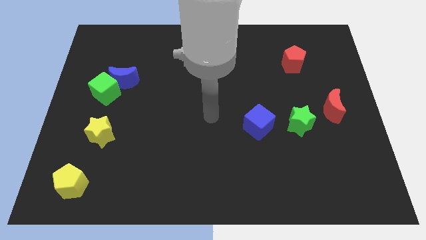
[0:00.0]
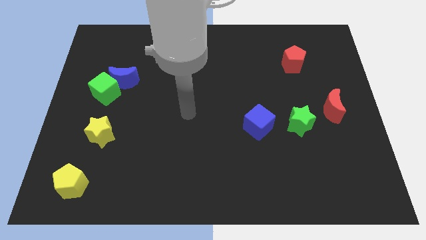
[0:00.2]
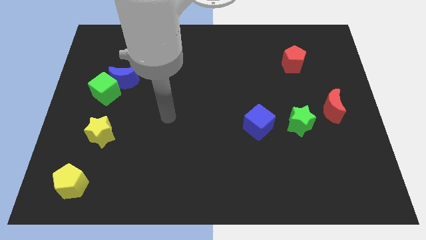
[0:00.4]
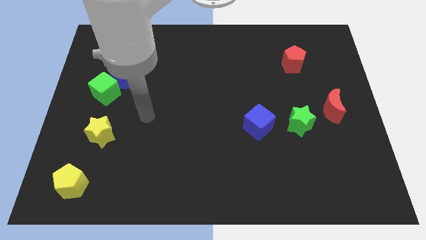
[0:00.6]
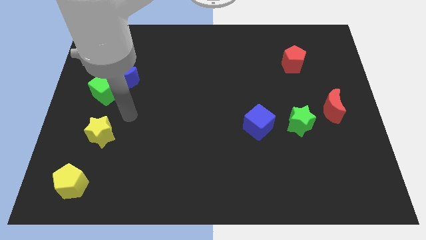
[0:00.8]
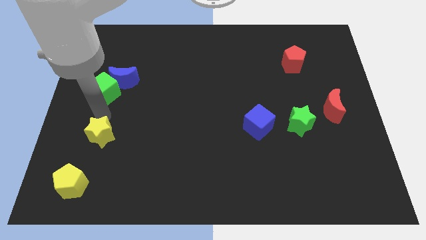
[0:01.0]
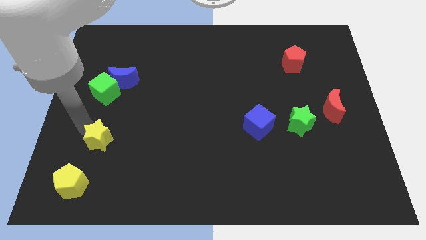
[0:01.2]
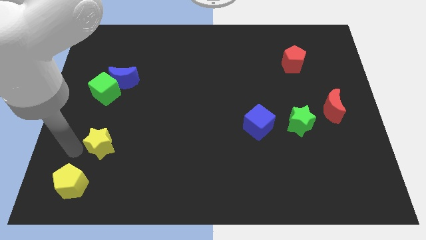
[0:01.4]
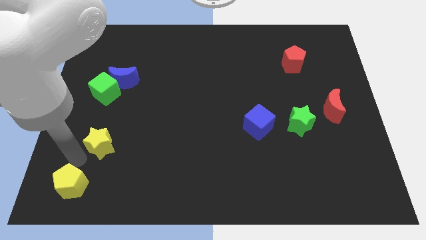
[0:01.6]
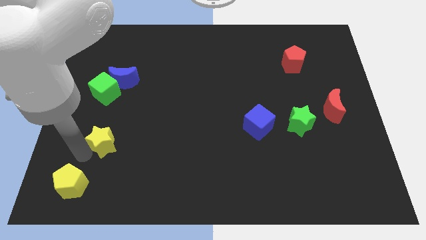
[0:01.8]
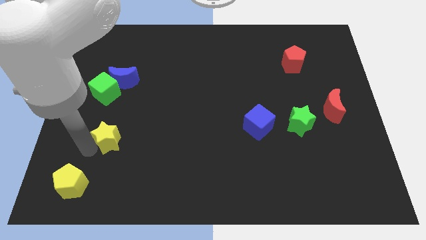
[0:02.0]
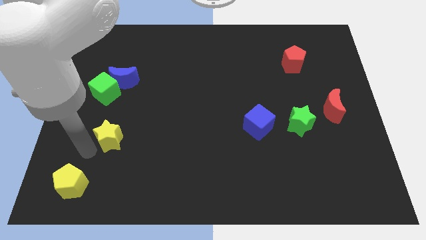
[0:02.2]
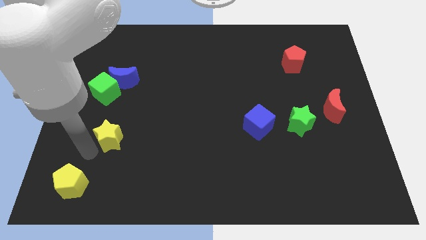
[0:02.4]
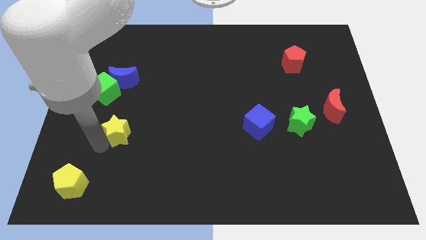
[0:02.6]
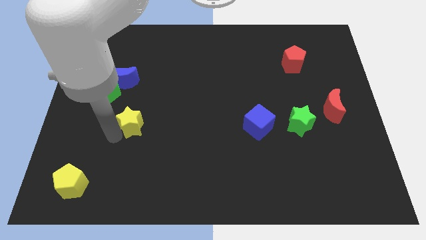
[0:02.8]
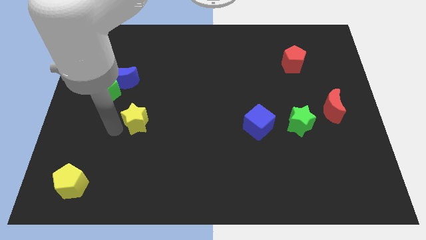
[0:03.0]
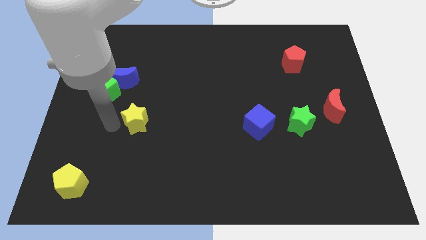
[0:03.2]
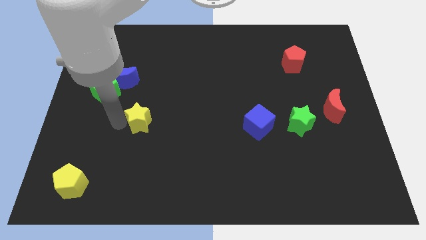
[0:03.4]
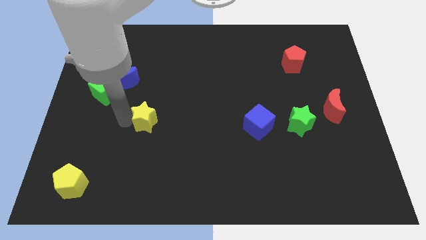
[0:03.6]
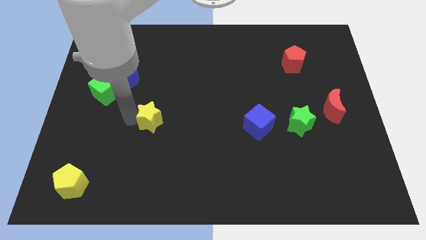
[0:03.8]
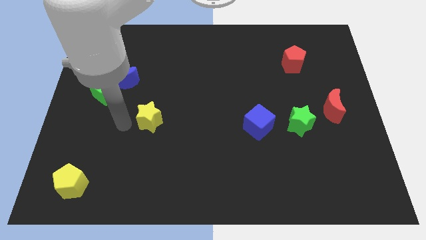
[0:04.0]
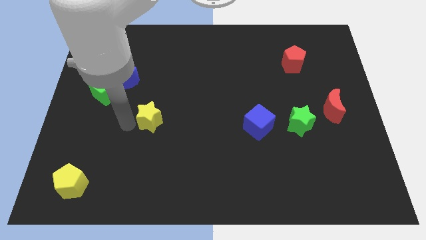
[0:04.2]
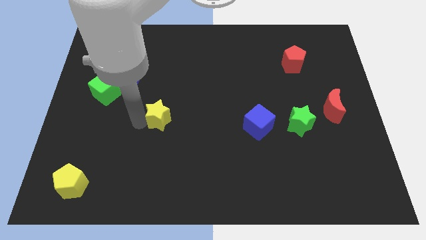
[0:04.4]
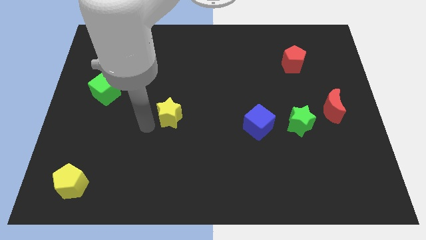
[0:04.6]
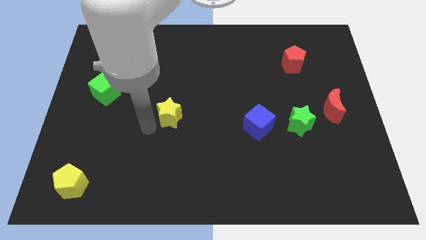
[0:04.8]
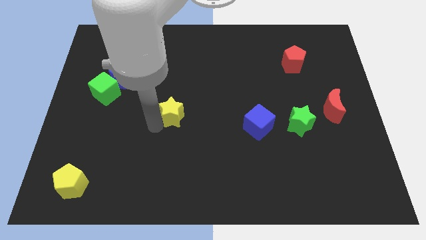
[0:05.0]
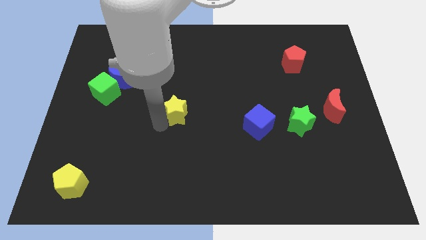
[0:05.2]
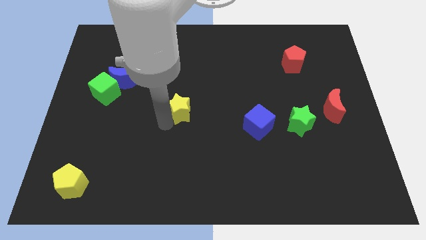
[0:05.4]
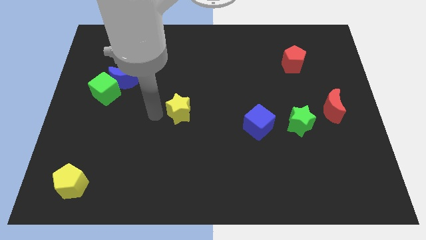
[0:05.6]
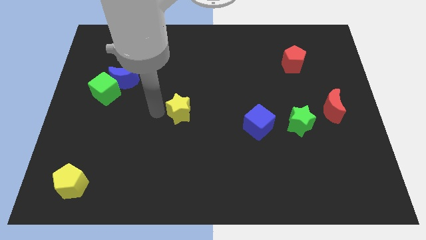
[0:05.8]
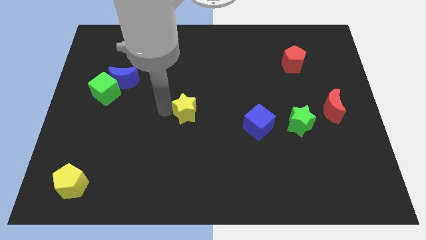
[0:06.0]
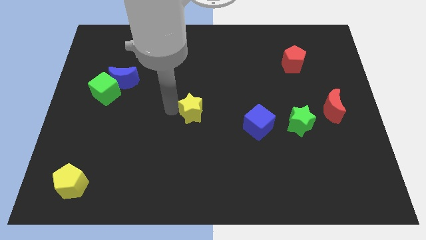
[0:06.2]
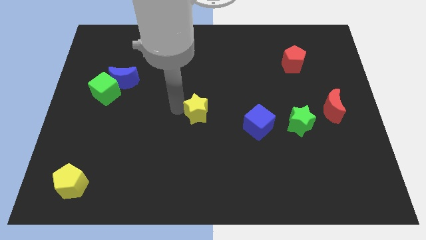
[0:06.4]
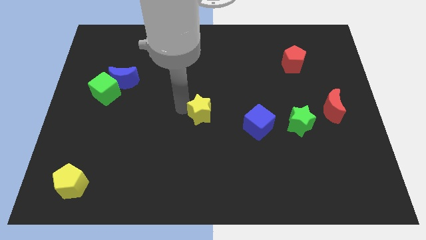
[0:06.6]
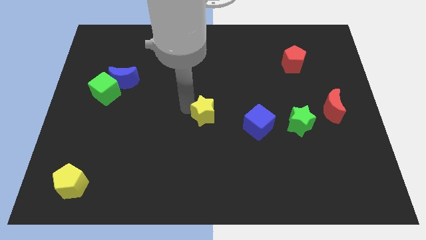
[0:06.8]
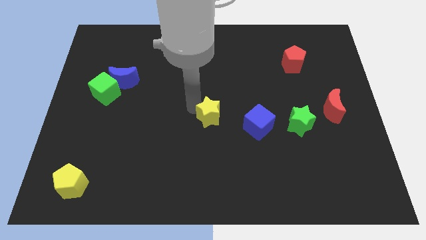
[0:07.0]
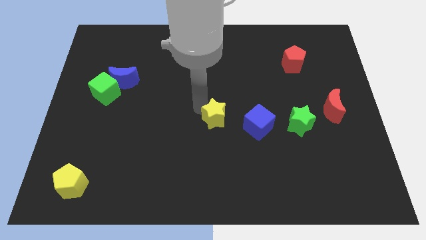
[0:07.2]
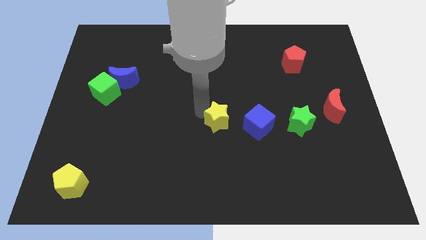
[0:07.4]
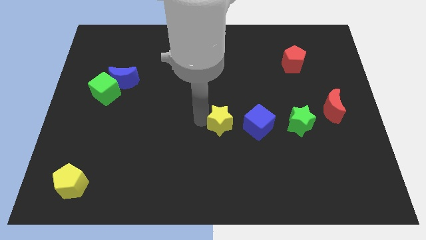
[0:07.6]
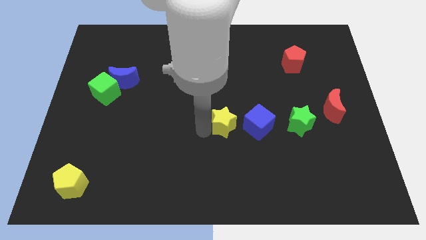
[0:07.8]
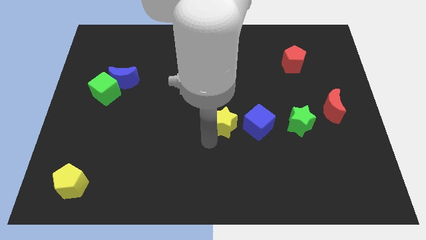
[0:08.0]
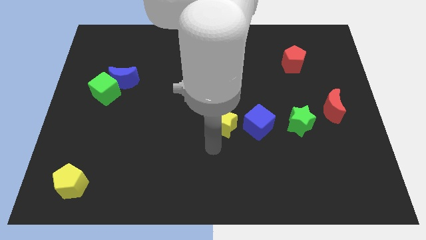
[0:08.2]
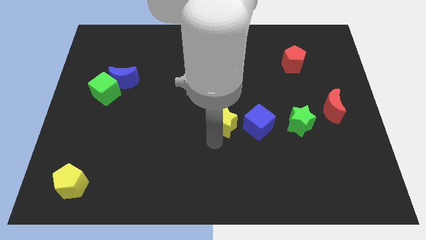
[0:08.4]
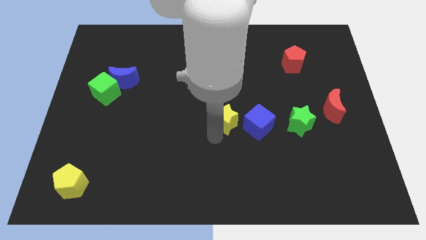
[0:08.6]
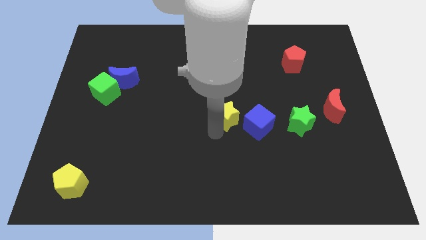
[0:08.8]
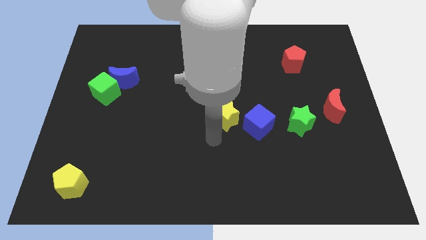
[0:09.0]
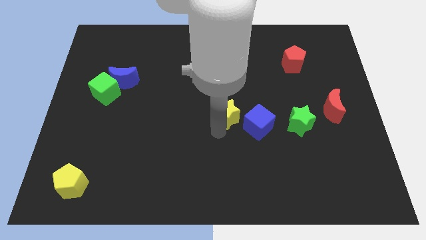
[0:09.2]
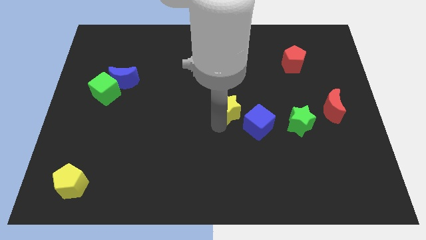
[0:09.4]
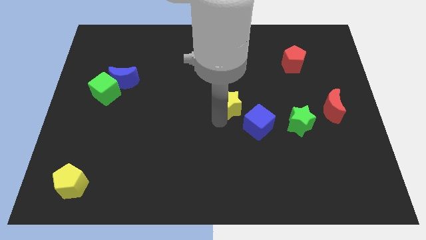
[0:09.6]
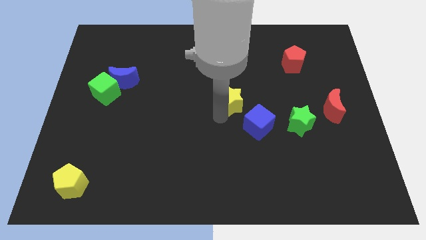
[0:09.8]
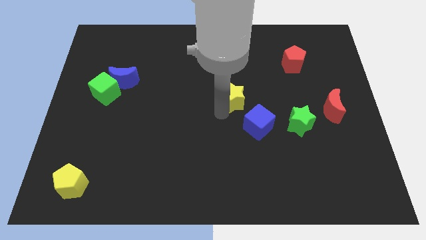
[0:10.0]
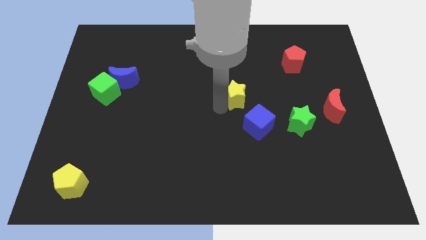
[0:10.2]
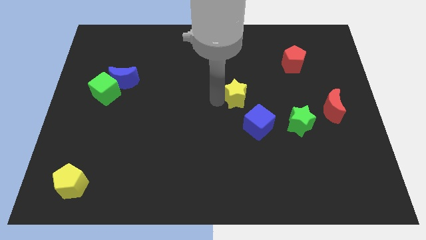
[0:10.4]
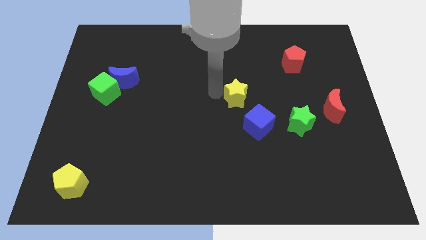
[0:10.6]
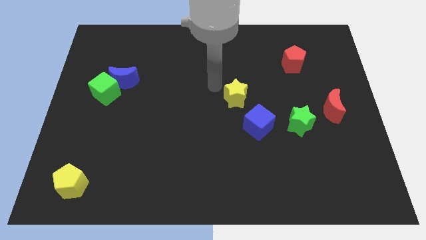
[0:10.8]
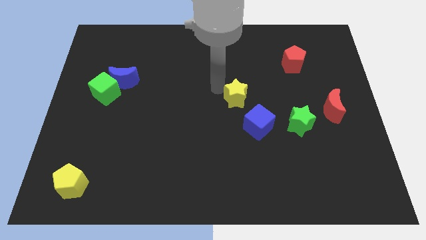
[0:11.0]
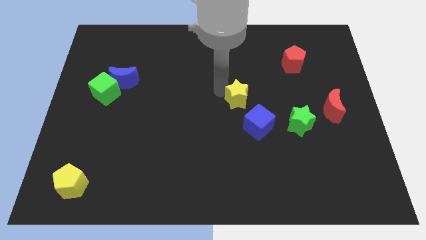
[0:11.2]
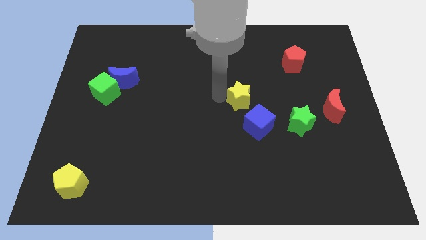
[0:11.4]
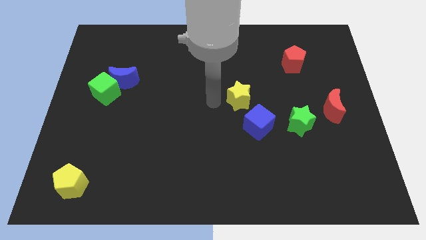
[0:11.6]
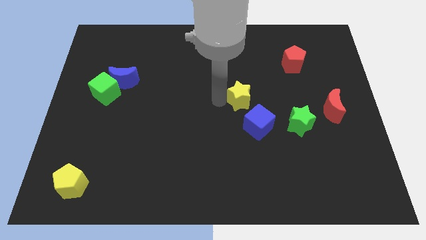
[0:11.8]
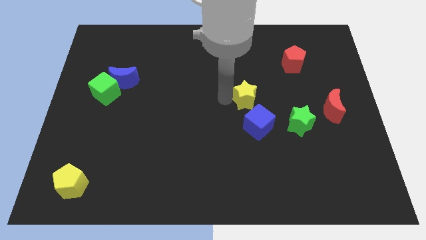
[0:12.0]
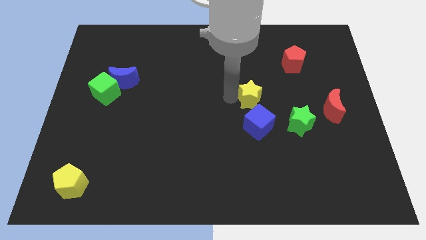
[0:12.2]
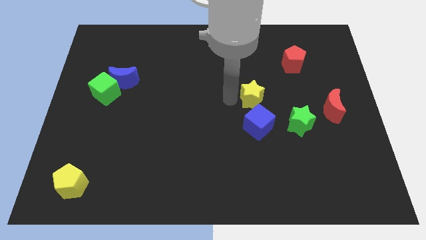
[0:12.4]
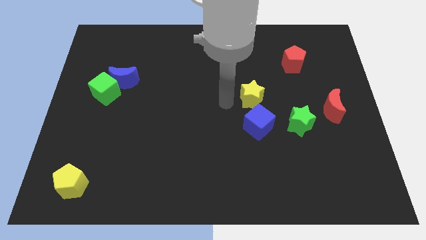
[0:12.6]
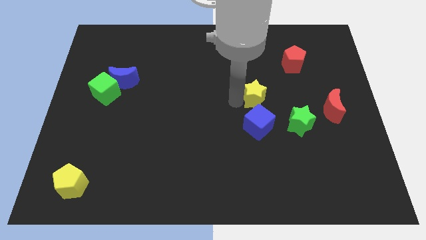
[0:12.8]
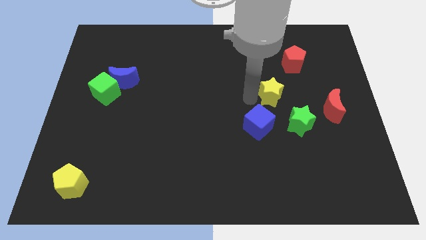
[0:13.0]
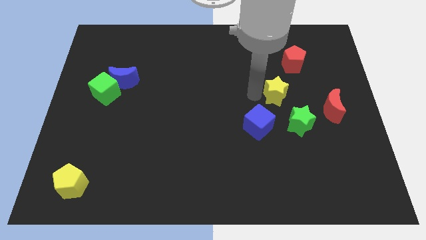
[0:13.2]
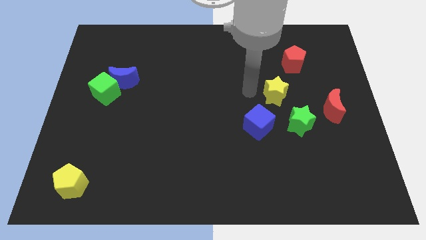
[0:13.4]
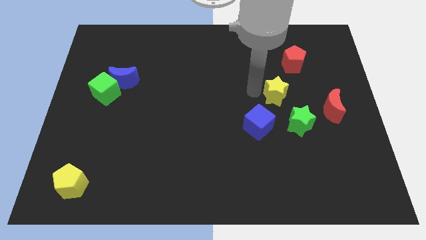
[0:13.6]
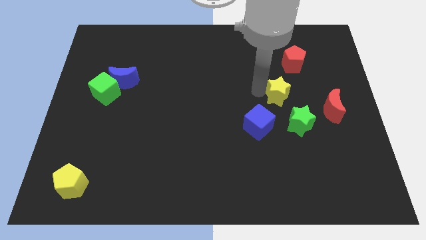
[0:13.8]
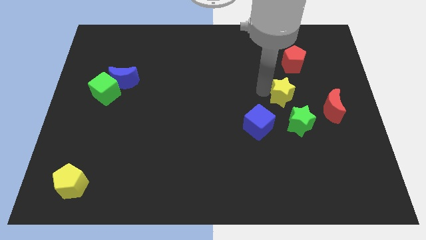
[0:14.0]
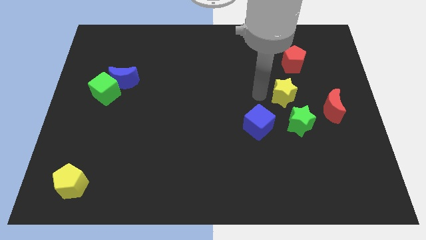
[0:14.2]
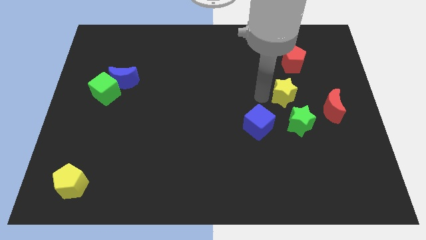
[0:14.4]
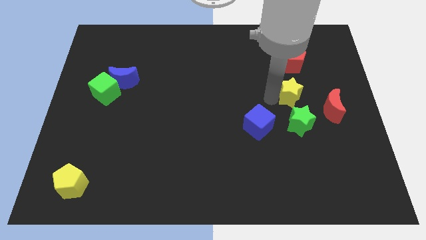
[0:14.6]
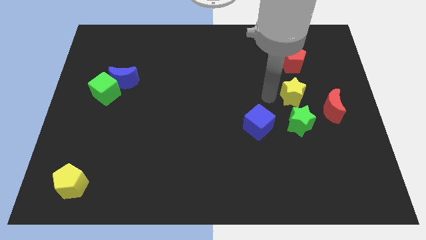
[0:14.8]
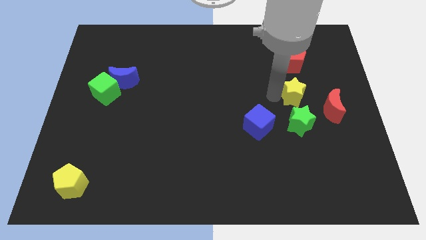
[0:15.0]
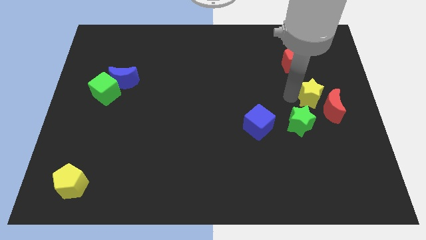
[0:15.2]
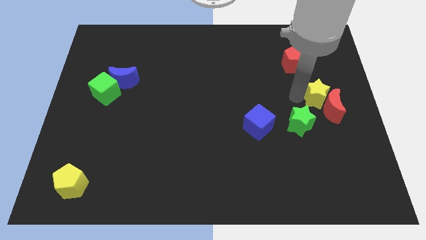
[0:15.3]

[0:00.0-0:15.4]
slide the yellow star to the center right
